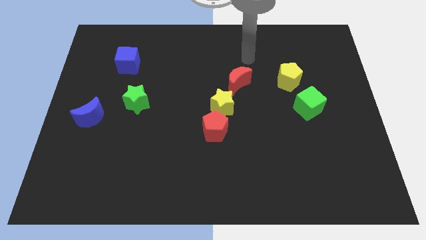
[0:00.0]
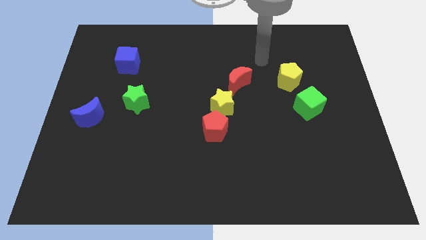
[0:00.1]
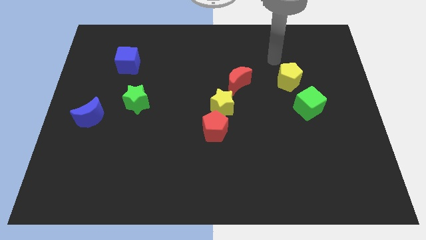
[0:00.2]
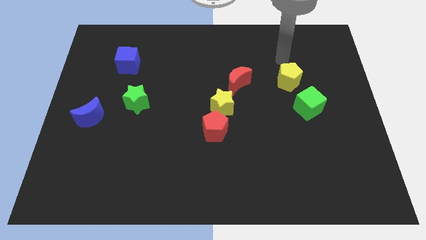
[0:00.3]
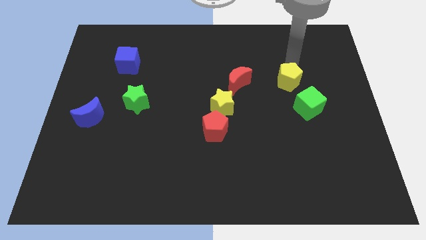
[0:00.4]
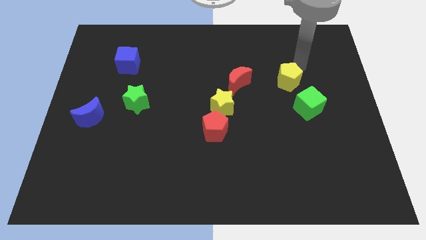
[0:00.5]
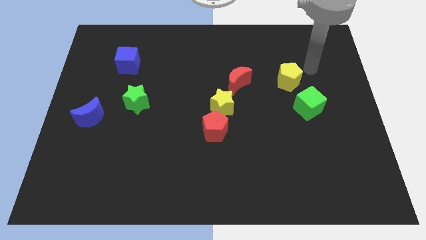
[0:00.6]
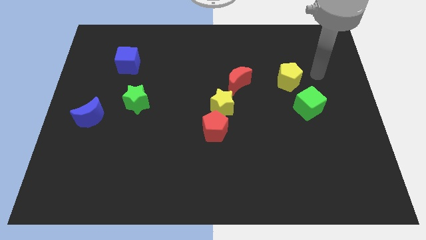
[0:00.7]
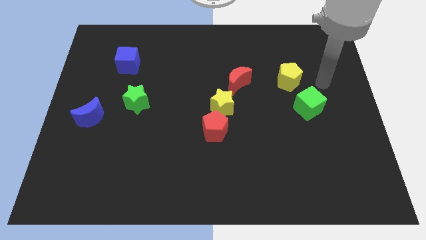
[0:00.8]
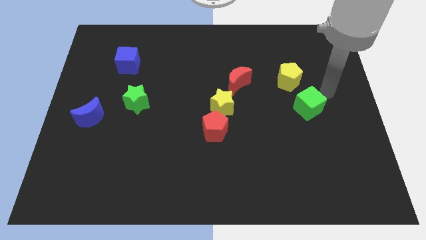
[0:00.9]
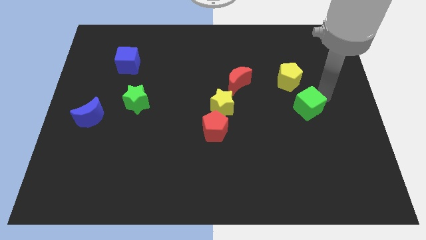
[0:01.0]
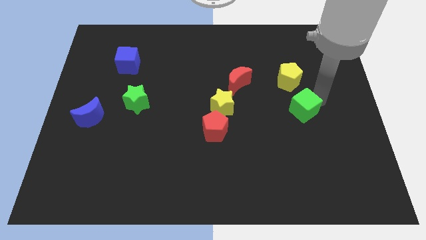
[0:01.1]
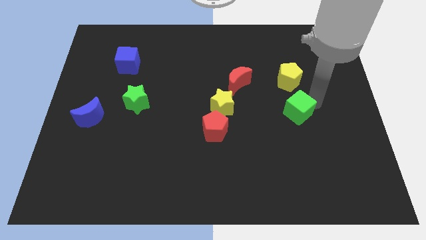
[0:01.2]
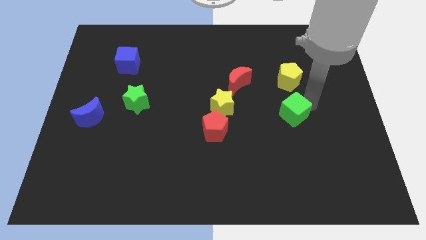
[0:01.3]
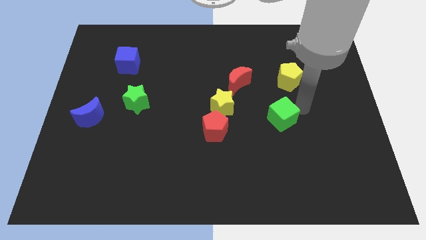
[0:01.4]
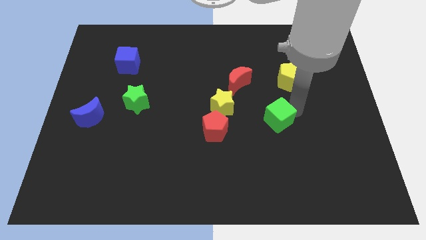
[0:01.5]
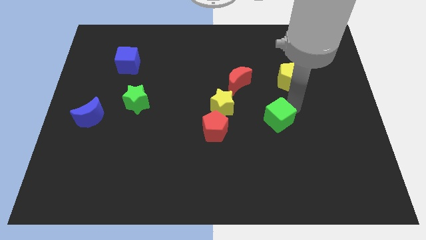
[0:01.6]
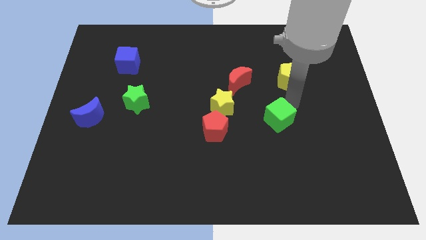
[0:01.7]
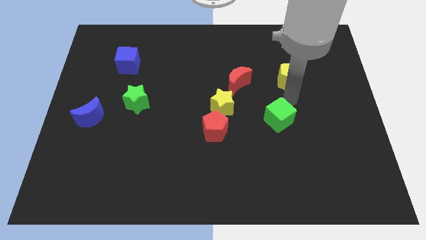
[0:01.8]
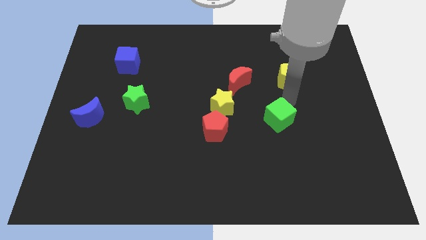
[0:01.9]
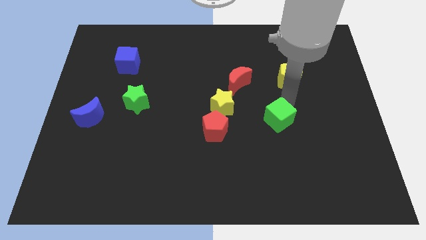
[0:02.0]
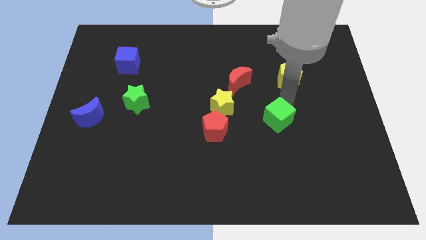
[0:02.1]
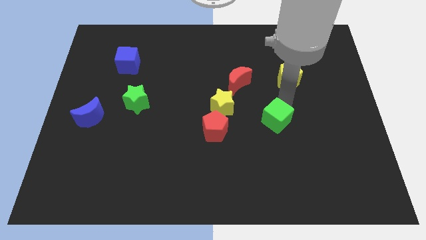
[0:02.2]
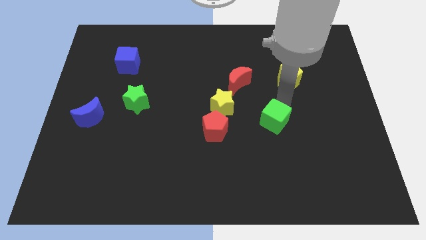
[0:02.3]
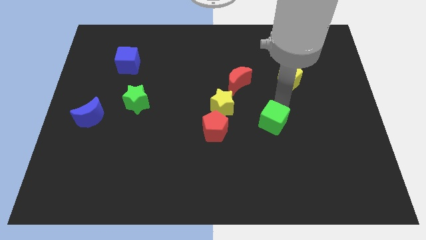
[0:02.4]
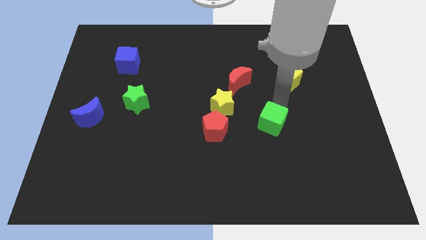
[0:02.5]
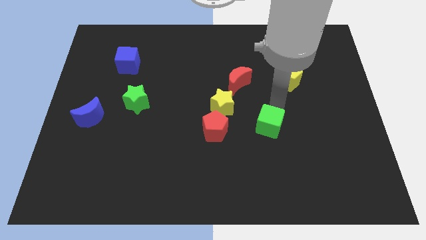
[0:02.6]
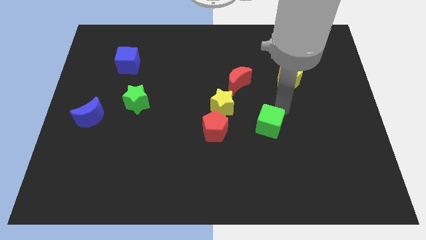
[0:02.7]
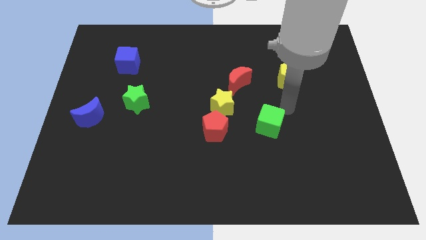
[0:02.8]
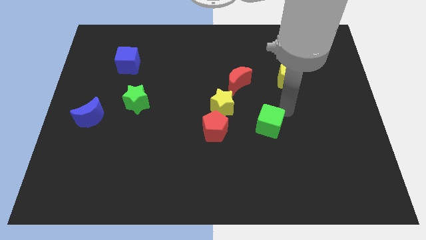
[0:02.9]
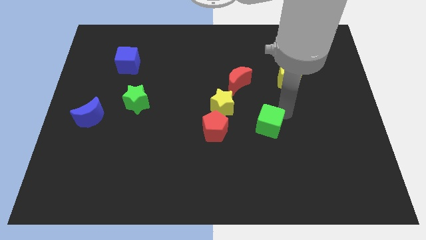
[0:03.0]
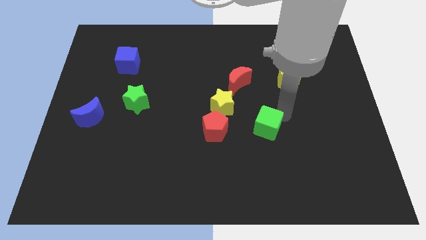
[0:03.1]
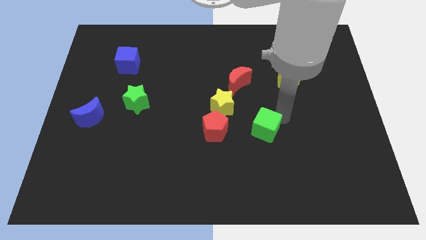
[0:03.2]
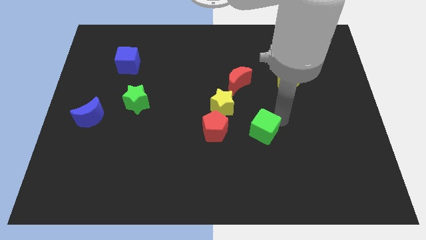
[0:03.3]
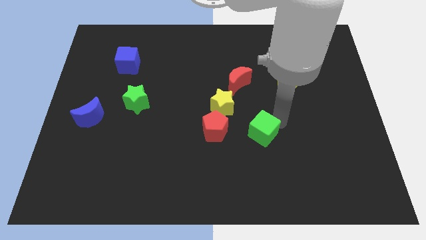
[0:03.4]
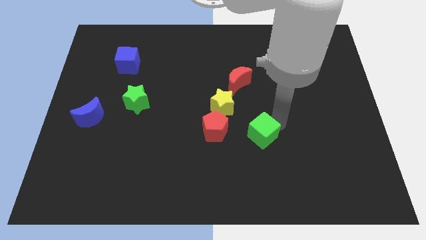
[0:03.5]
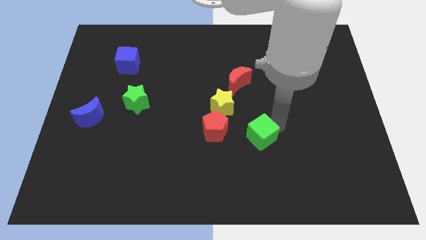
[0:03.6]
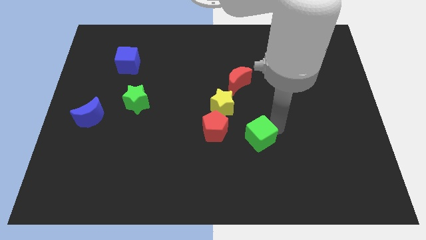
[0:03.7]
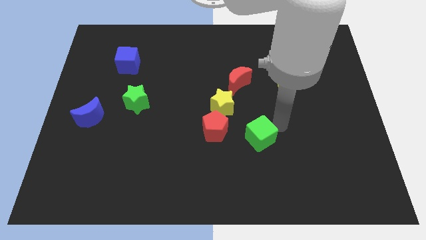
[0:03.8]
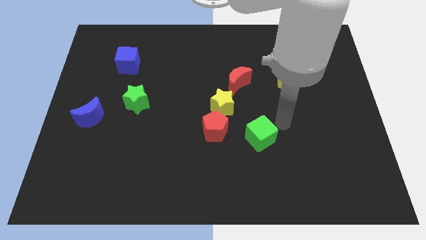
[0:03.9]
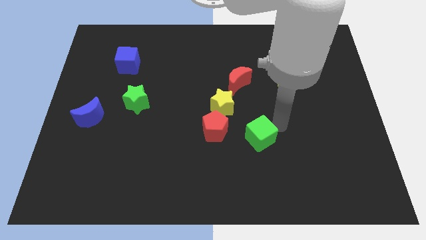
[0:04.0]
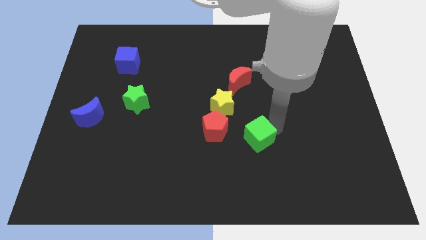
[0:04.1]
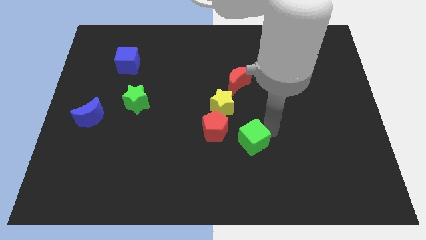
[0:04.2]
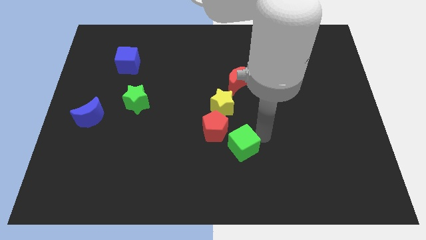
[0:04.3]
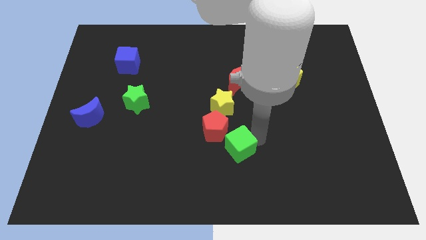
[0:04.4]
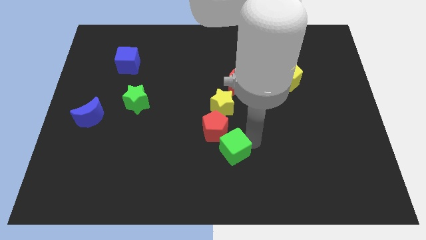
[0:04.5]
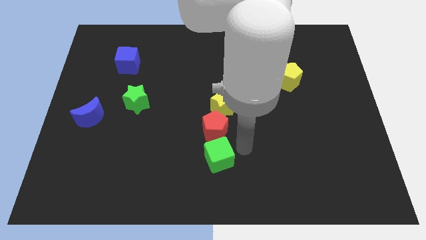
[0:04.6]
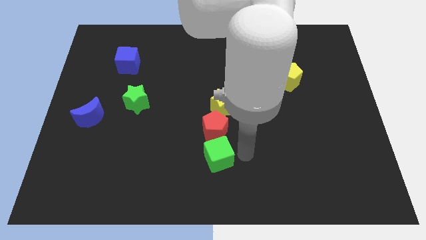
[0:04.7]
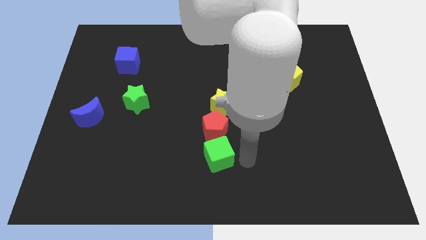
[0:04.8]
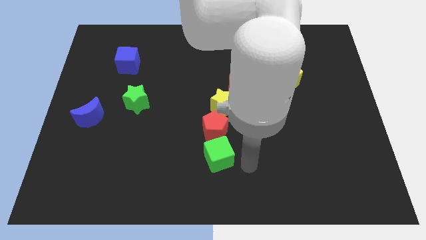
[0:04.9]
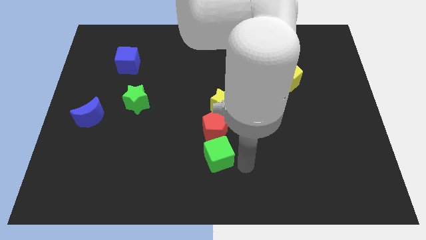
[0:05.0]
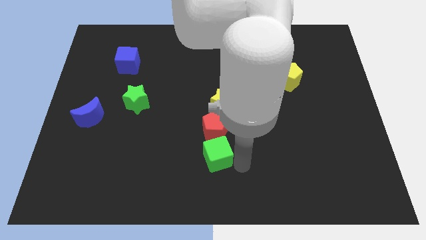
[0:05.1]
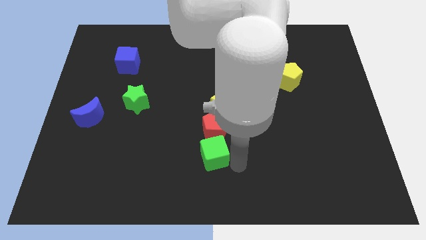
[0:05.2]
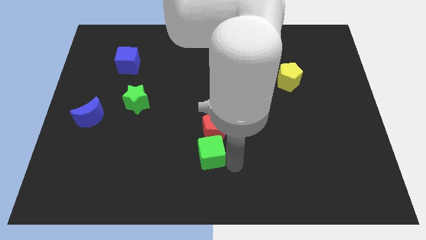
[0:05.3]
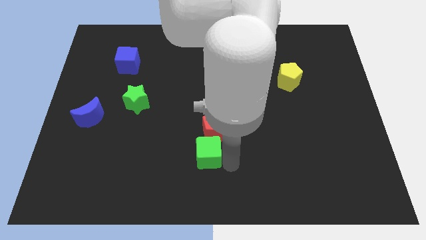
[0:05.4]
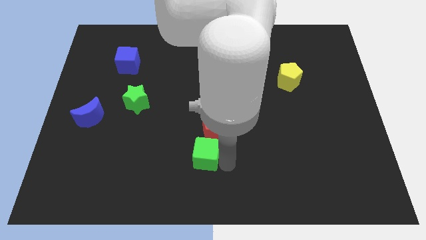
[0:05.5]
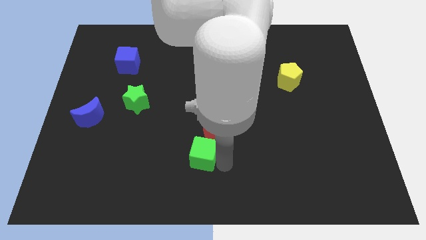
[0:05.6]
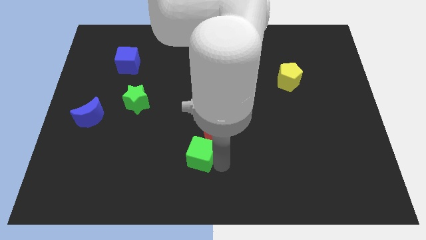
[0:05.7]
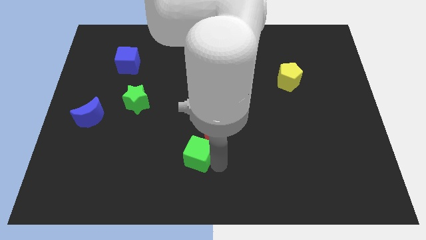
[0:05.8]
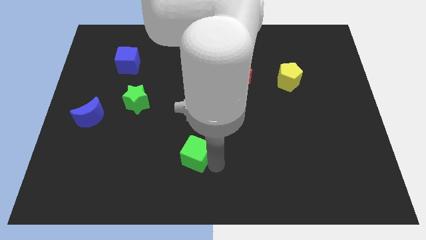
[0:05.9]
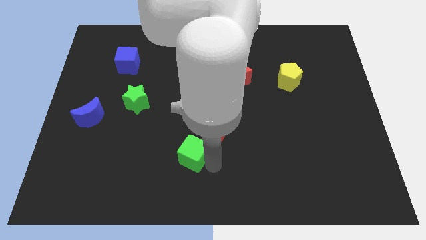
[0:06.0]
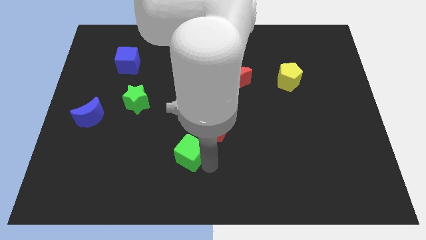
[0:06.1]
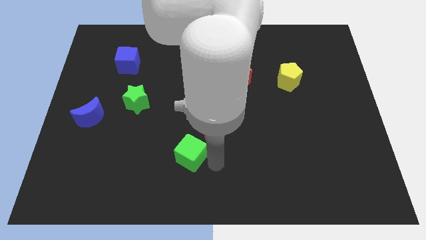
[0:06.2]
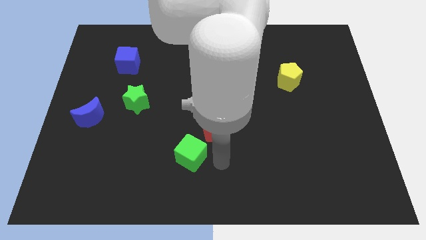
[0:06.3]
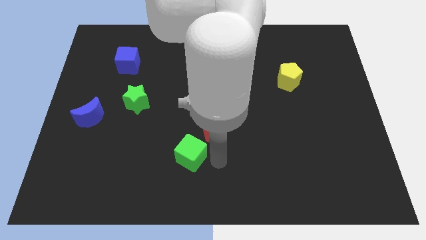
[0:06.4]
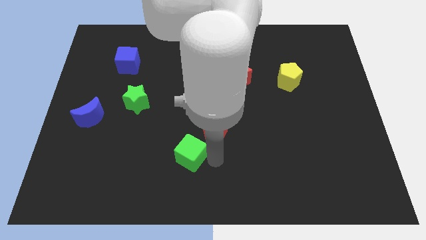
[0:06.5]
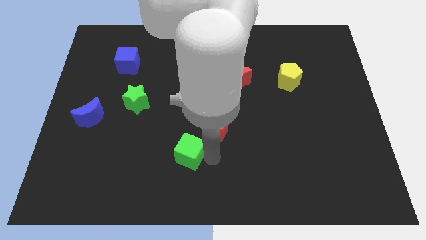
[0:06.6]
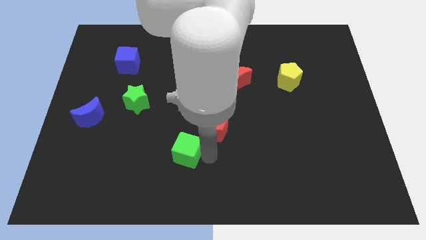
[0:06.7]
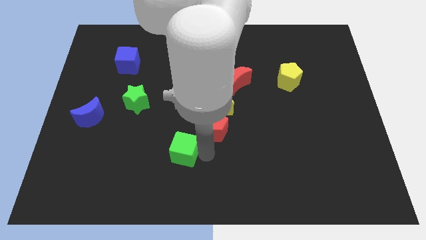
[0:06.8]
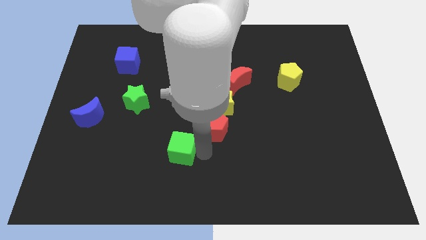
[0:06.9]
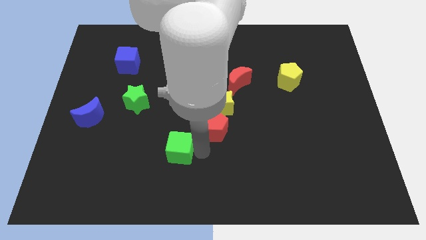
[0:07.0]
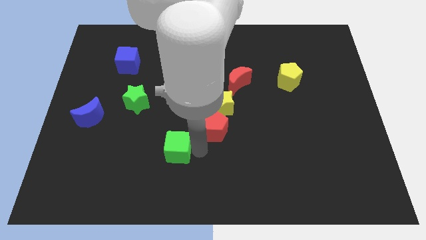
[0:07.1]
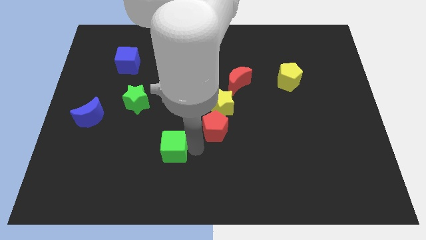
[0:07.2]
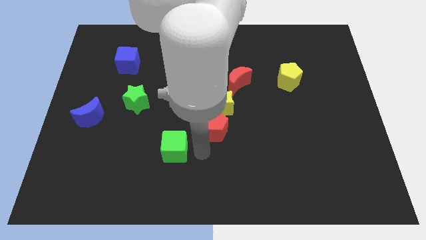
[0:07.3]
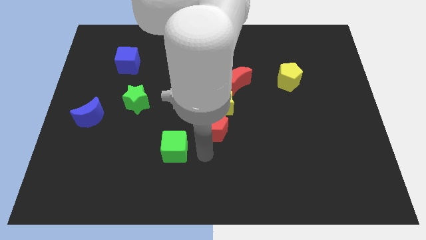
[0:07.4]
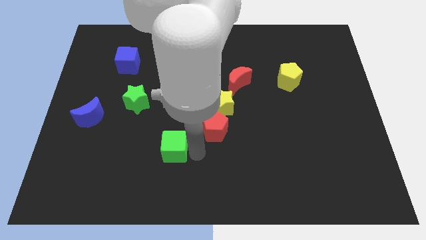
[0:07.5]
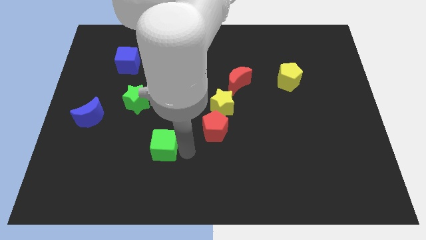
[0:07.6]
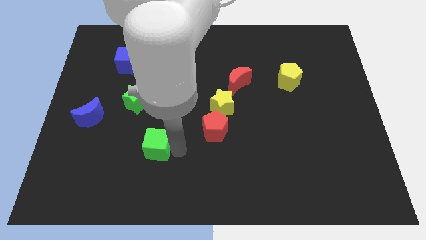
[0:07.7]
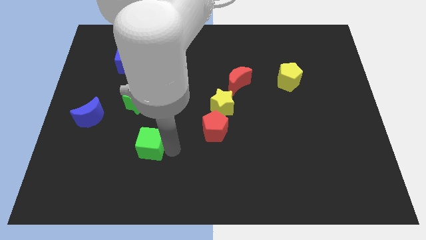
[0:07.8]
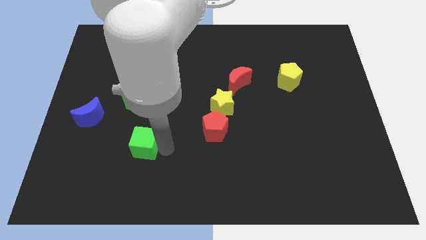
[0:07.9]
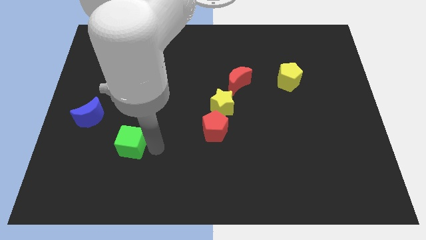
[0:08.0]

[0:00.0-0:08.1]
move the green cube diagonally down and to the right of the blue moon
